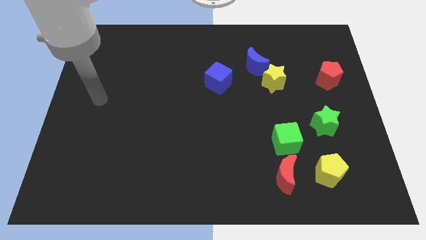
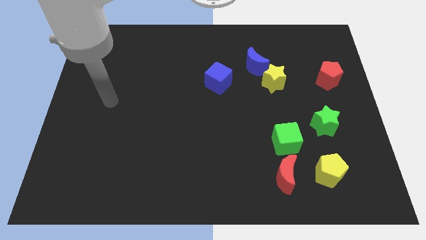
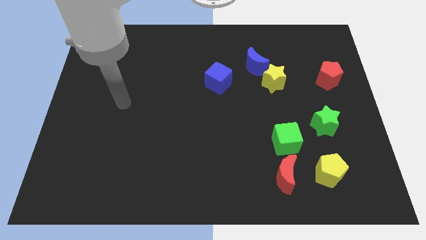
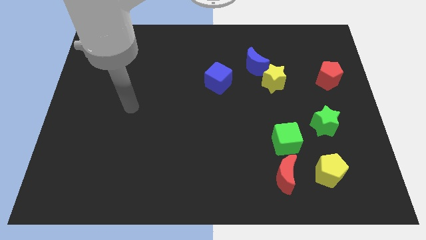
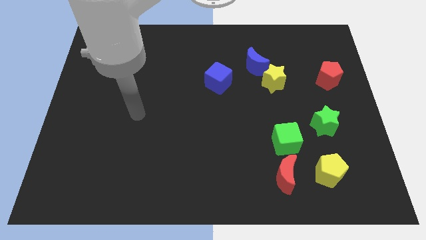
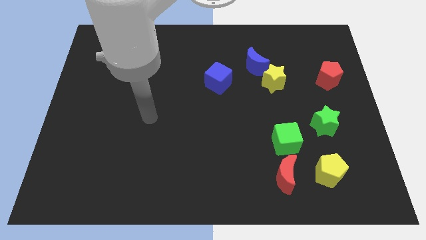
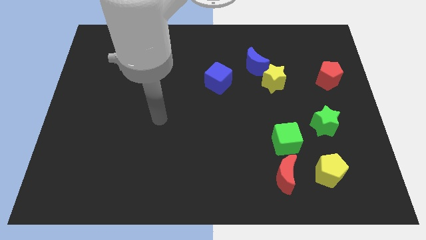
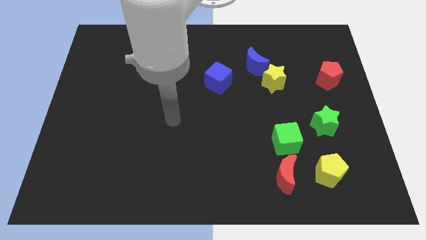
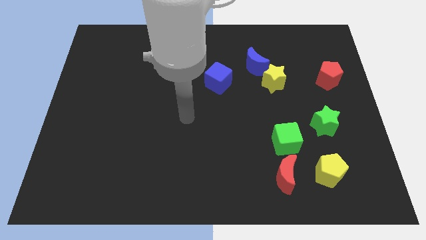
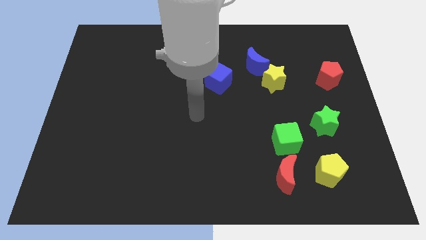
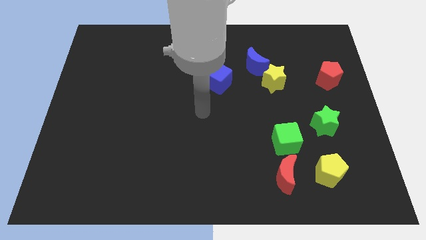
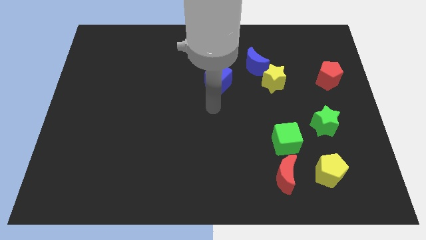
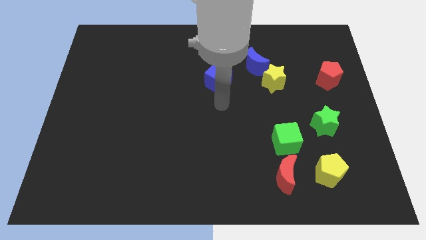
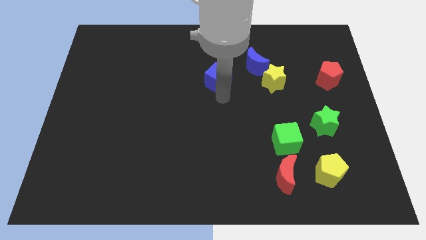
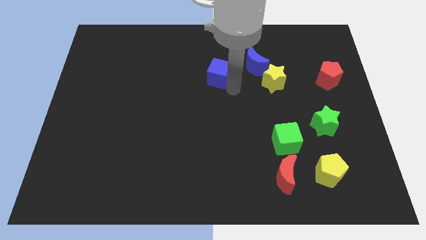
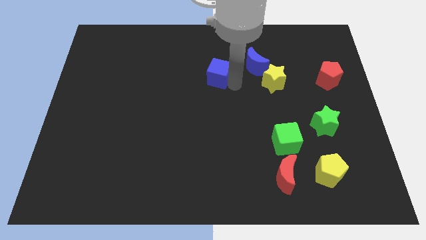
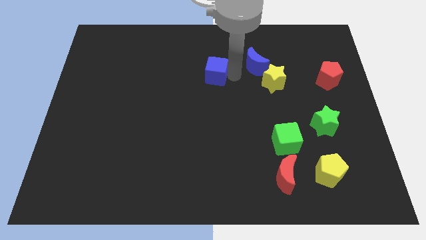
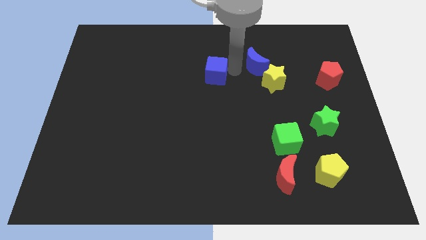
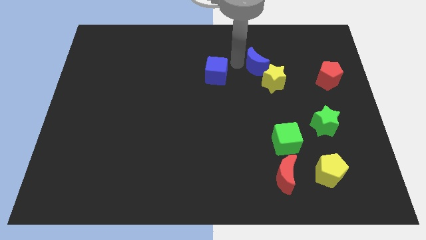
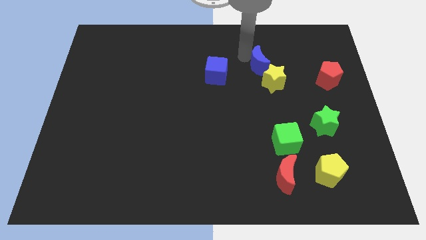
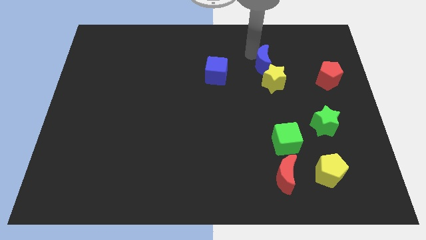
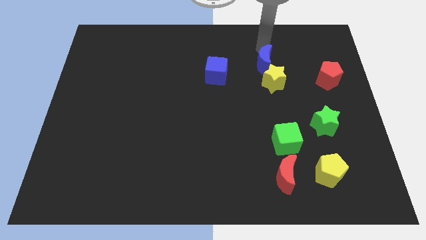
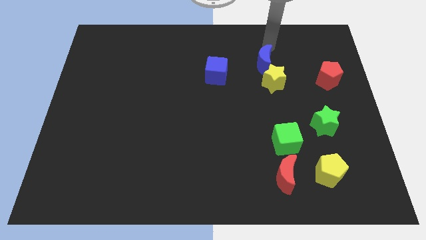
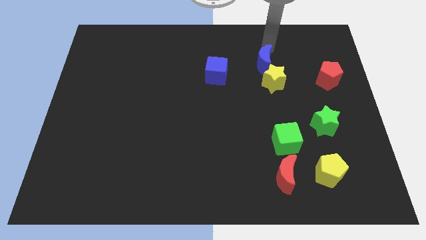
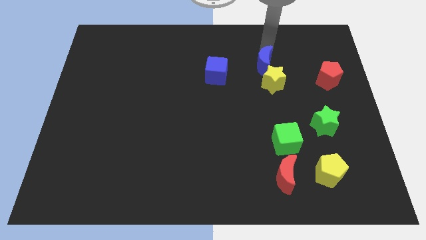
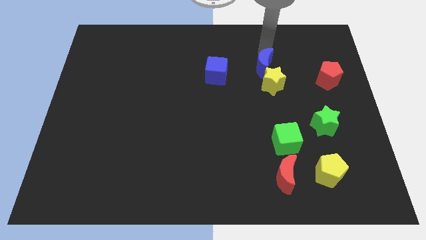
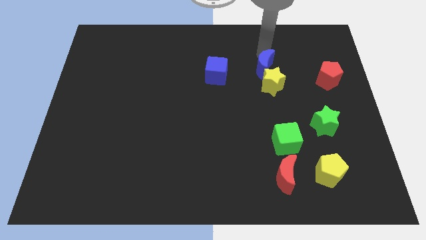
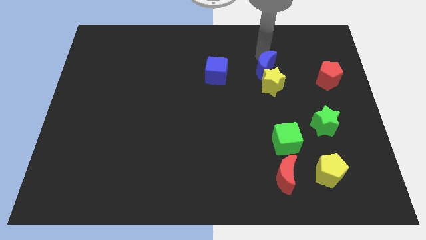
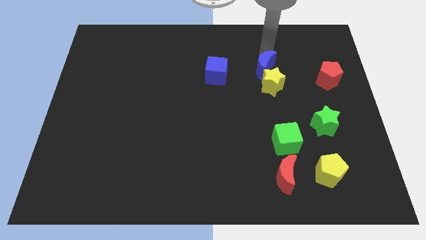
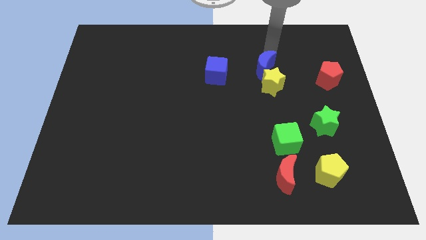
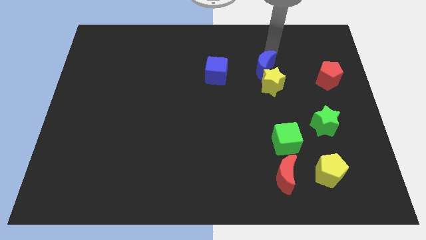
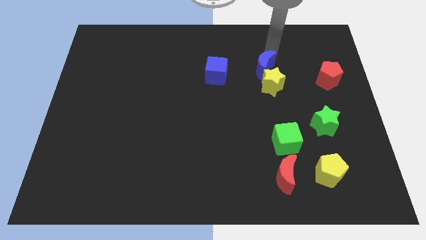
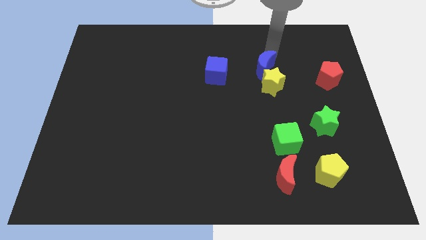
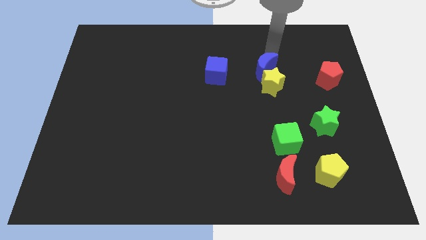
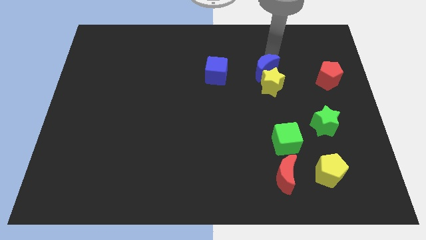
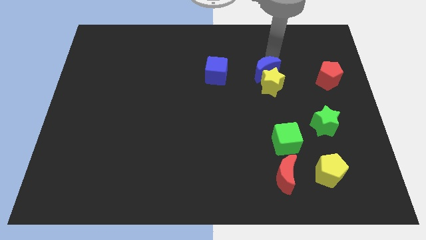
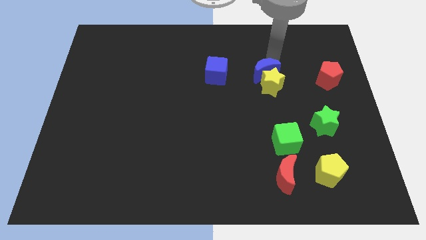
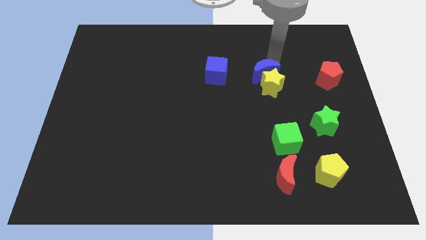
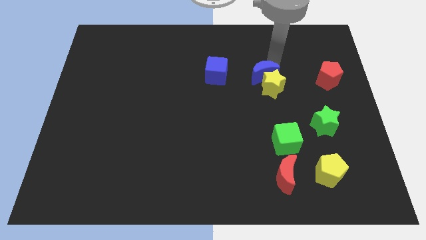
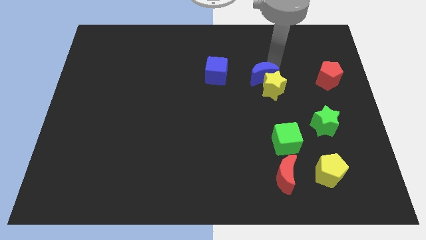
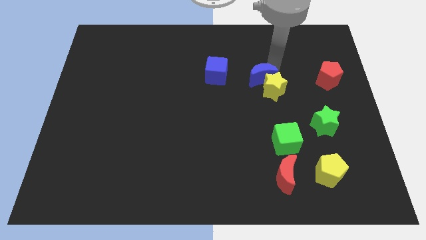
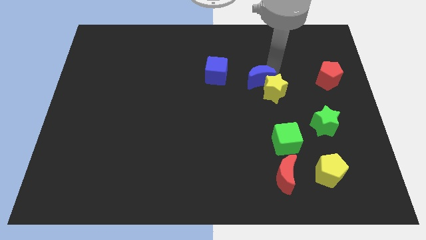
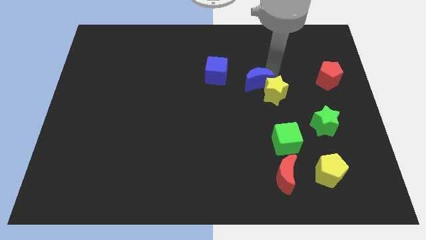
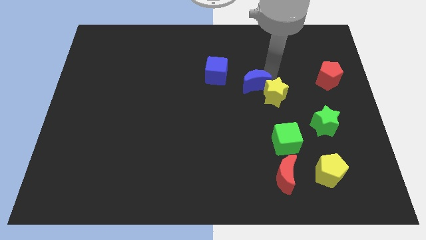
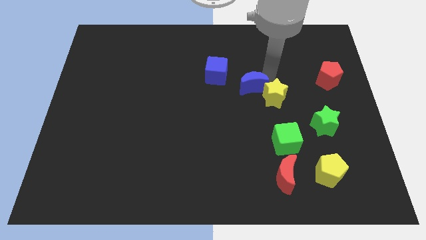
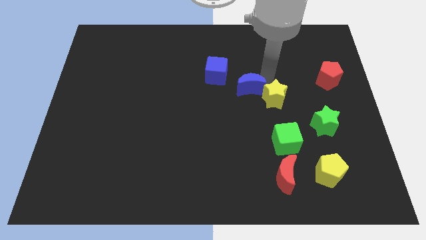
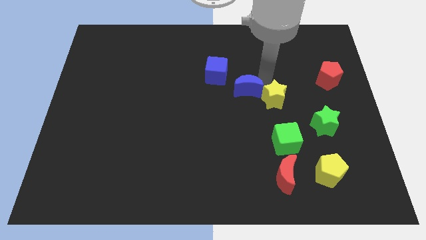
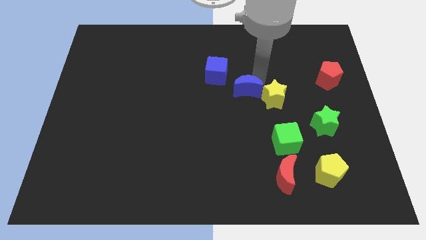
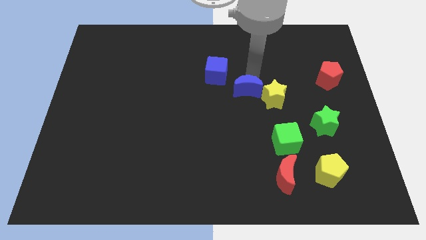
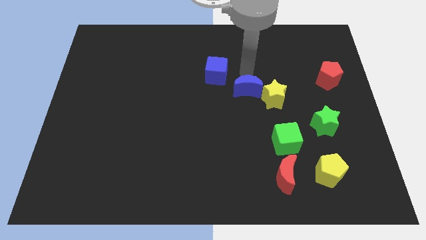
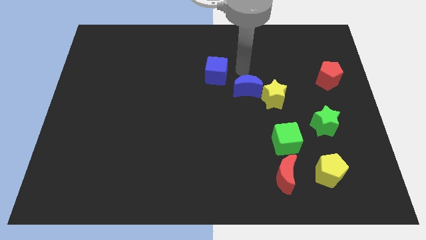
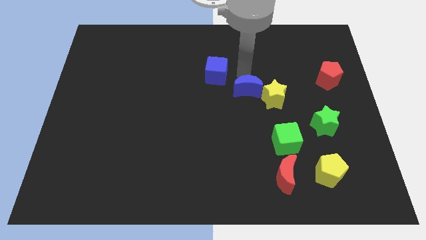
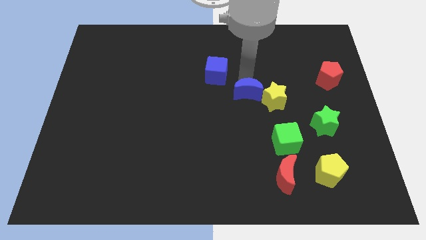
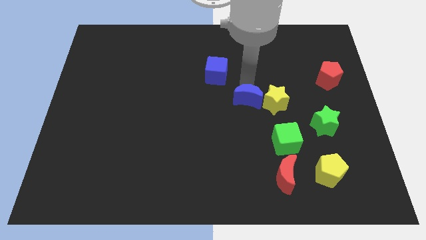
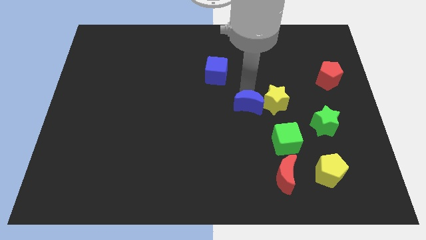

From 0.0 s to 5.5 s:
slide the blue moon to the bottom left of the yellow star

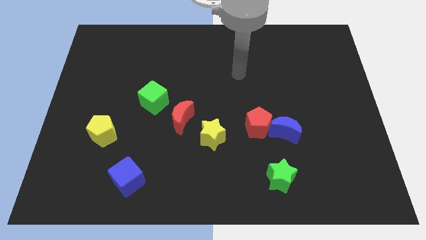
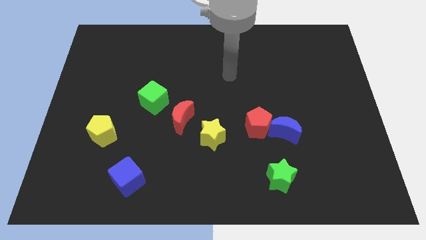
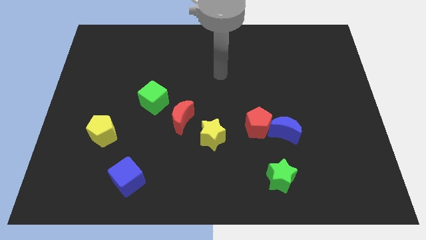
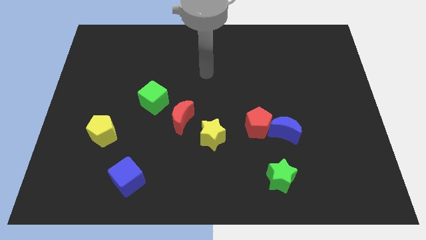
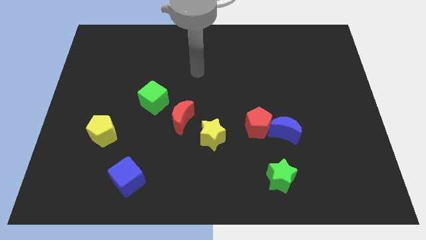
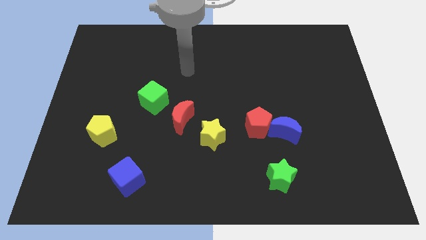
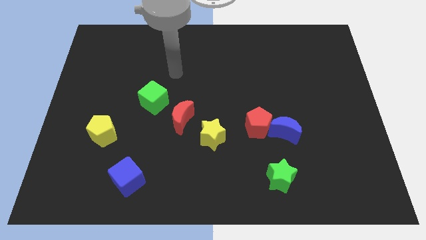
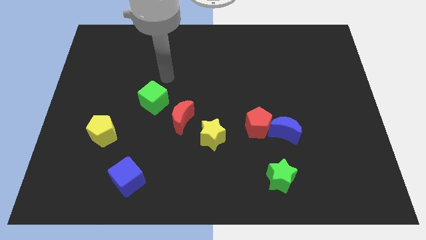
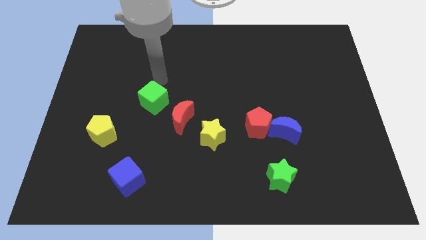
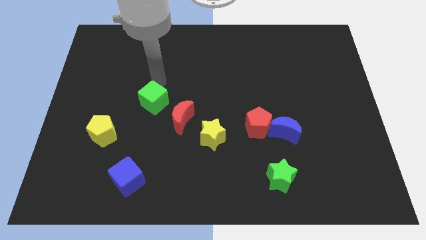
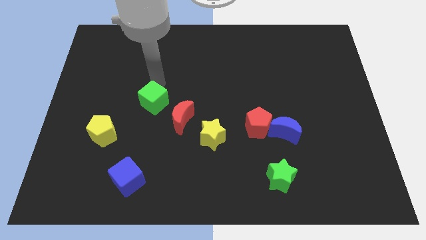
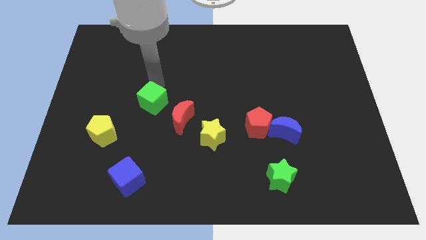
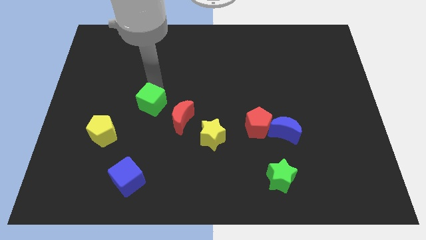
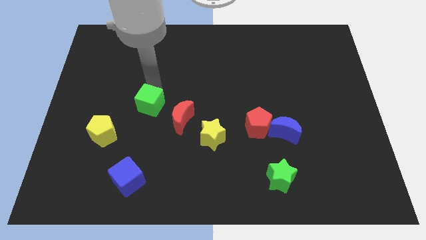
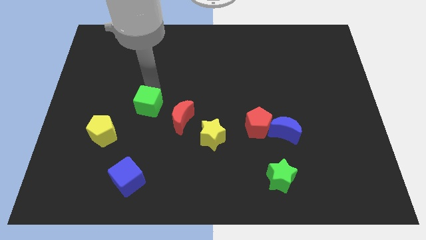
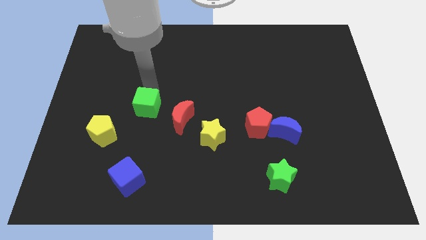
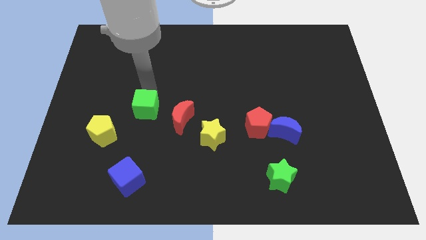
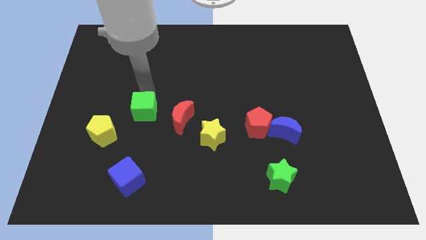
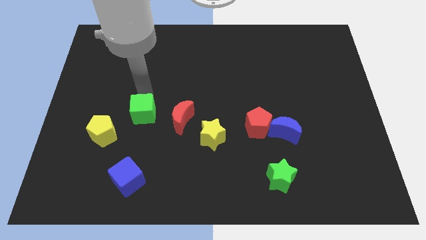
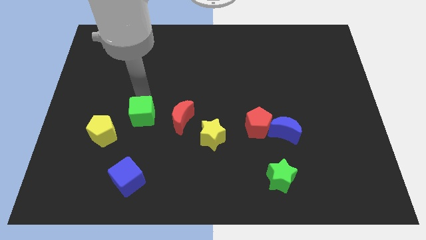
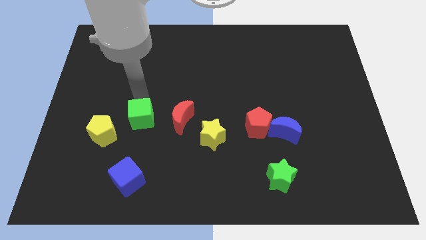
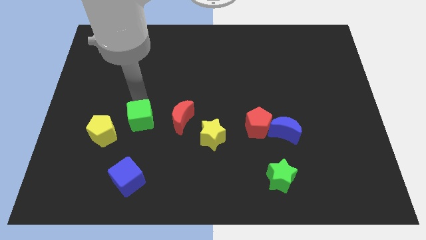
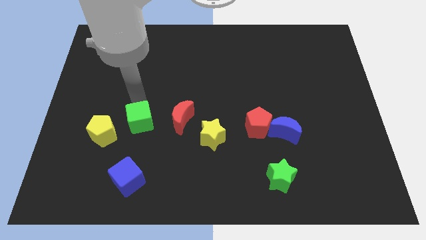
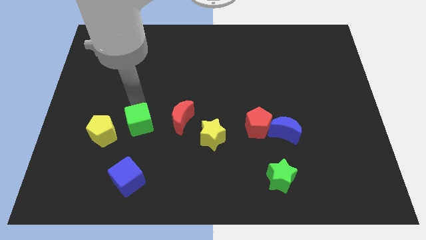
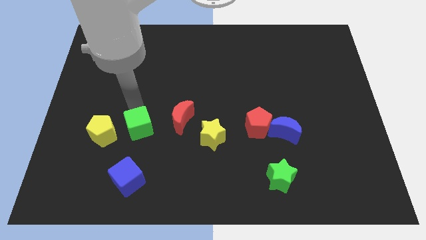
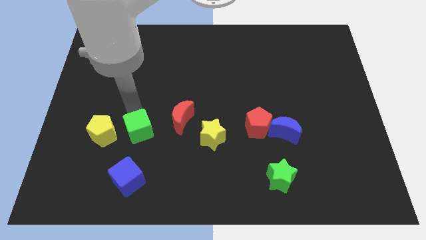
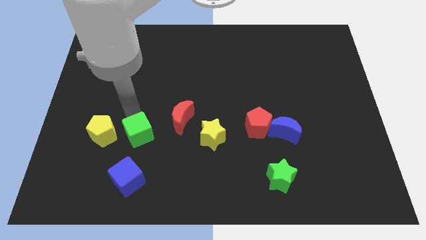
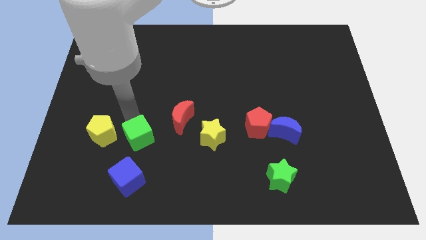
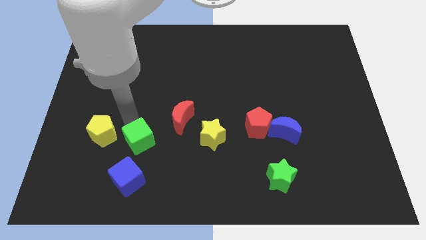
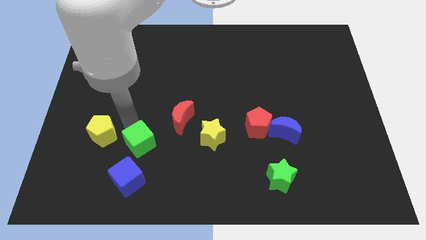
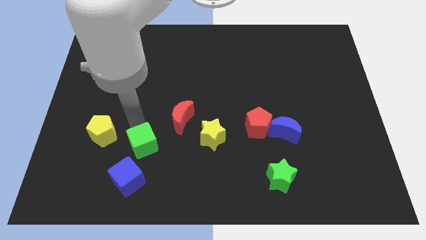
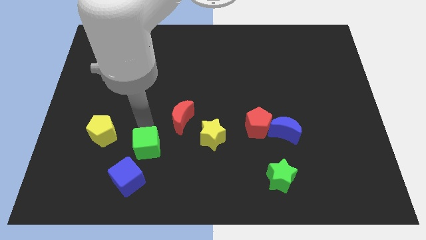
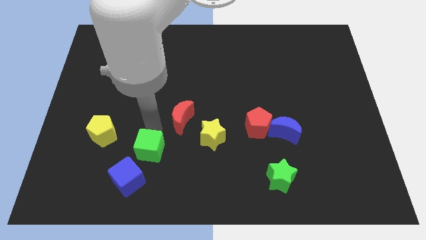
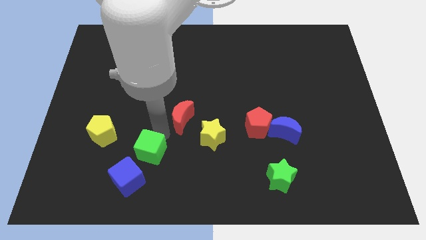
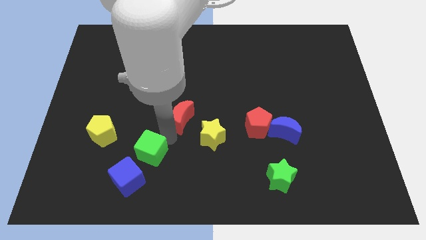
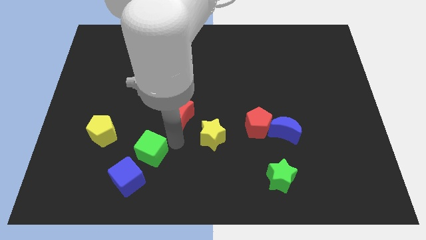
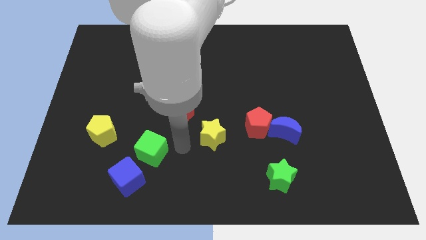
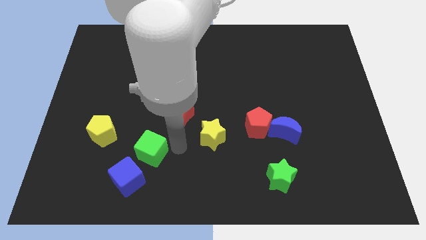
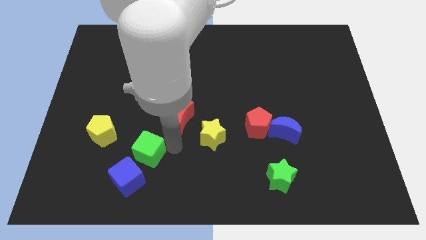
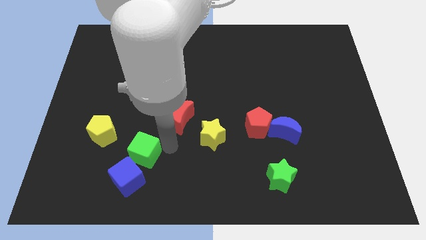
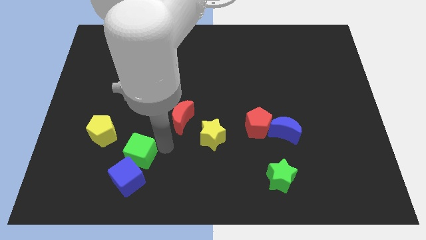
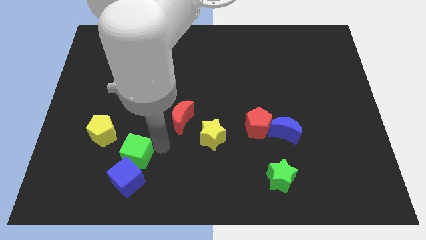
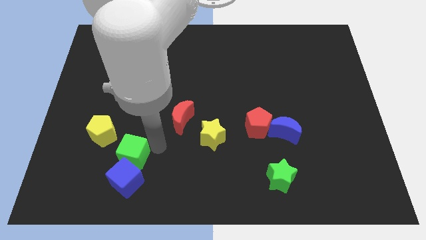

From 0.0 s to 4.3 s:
move the green cube to the top left of the blue cube
